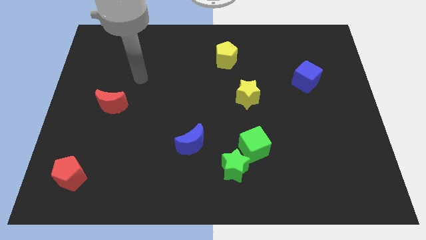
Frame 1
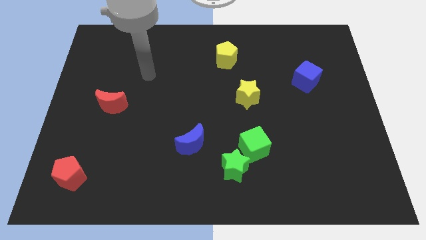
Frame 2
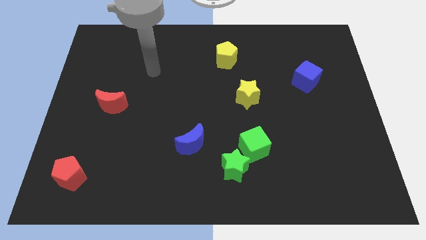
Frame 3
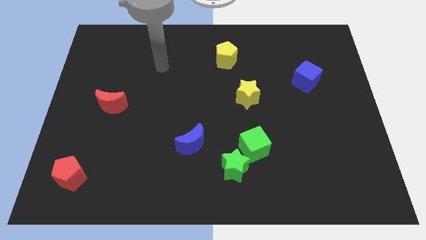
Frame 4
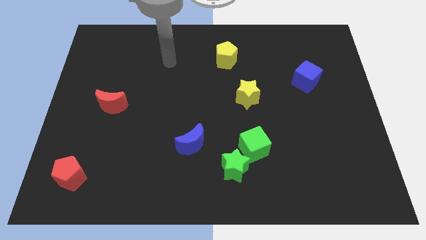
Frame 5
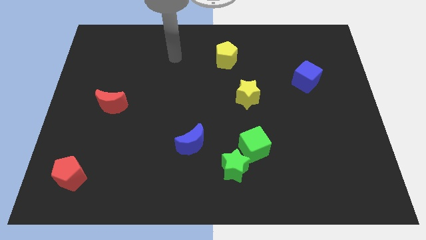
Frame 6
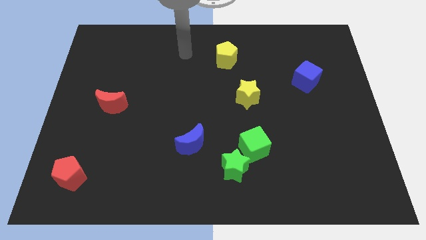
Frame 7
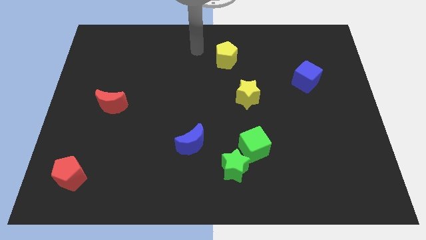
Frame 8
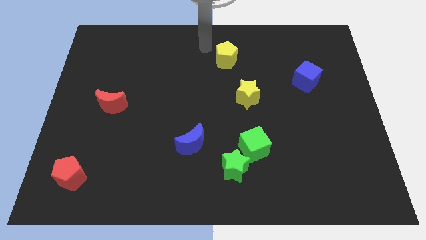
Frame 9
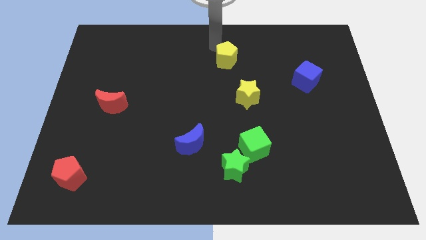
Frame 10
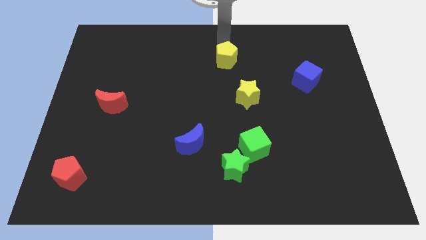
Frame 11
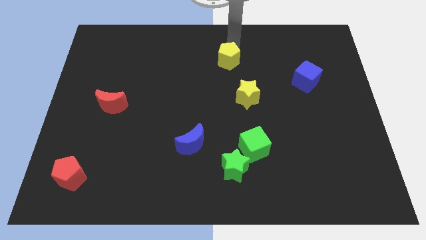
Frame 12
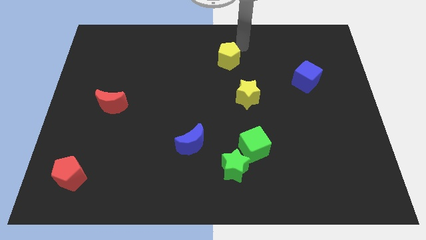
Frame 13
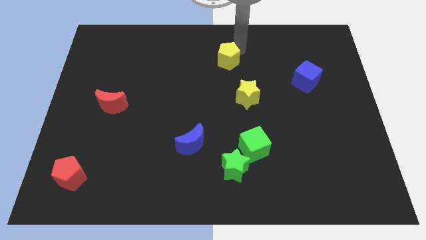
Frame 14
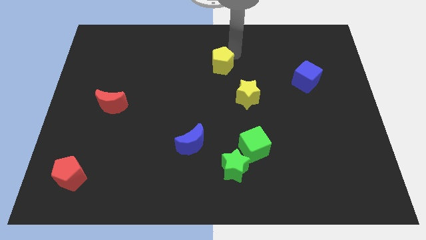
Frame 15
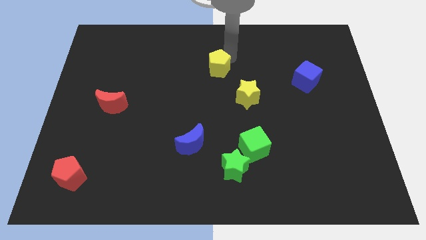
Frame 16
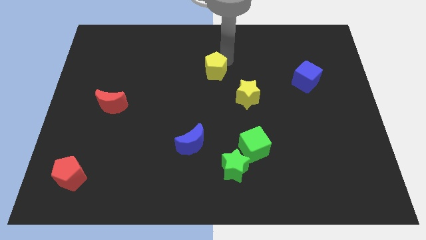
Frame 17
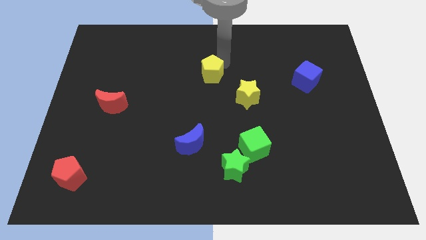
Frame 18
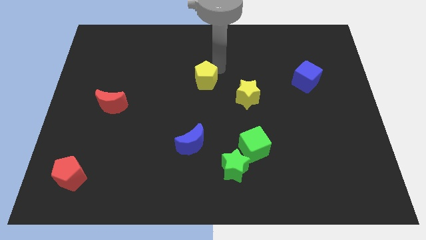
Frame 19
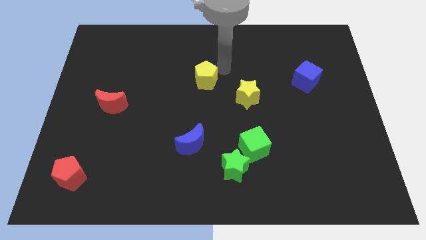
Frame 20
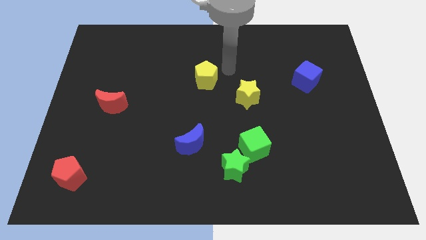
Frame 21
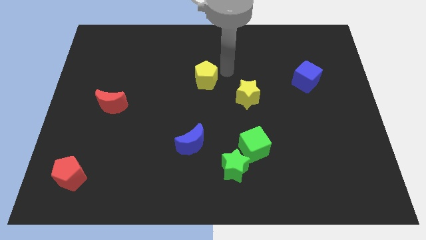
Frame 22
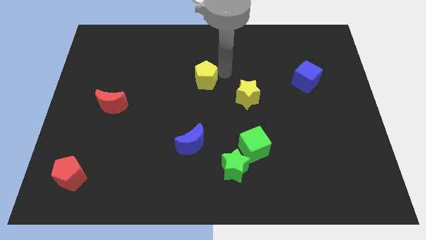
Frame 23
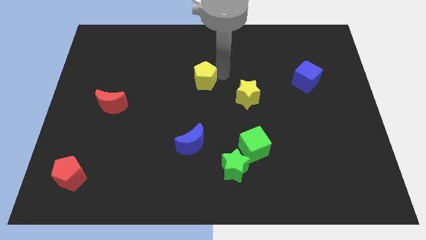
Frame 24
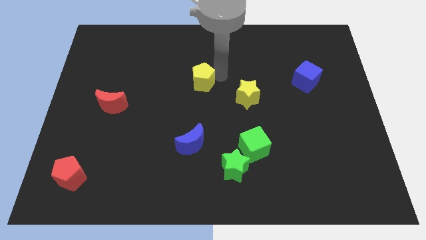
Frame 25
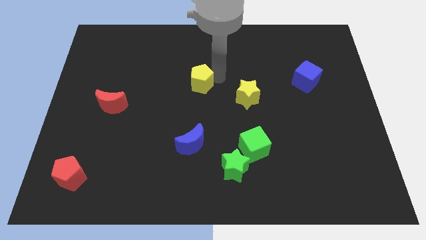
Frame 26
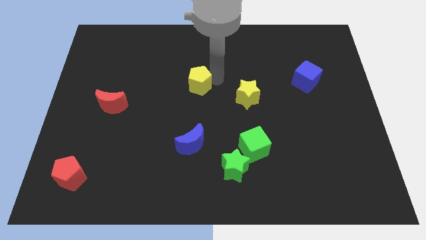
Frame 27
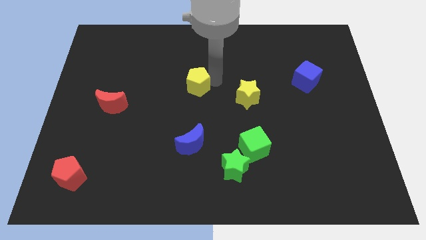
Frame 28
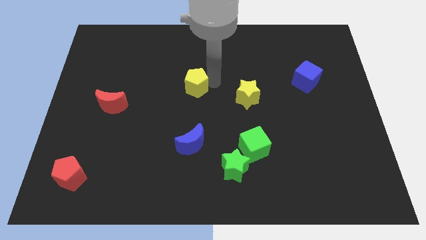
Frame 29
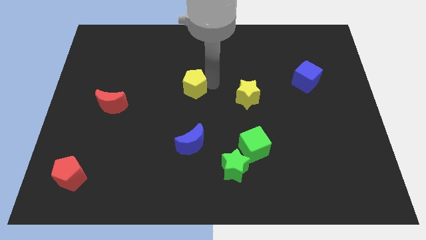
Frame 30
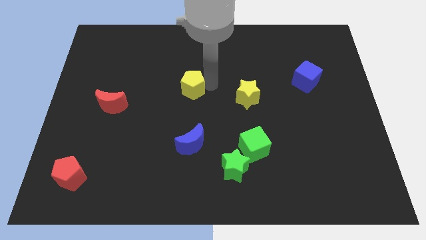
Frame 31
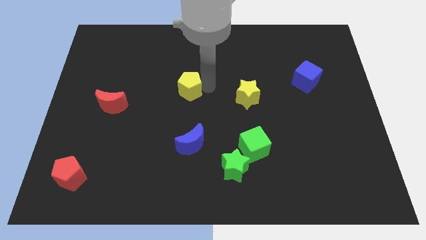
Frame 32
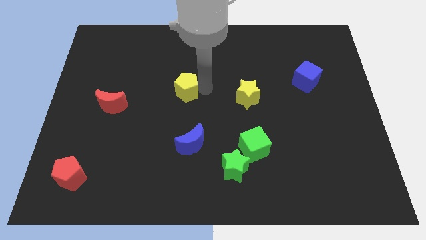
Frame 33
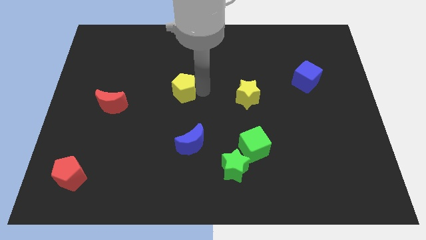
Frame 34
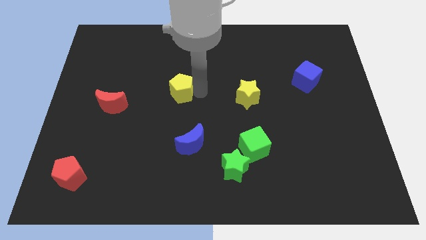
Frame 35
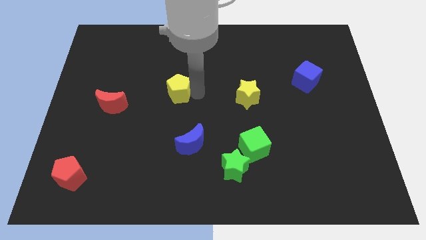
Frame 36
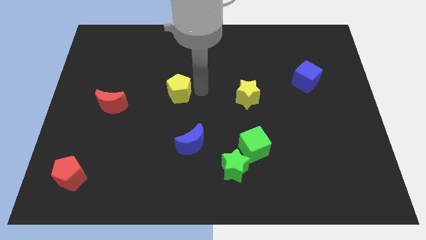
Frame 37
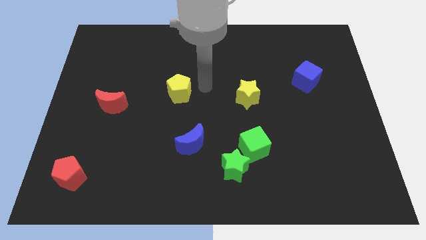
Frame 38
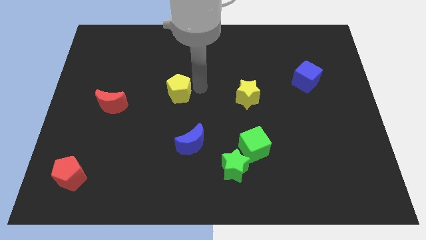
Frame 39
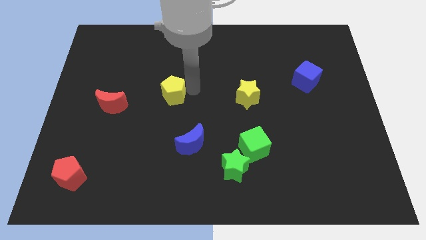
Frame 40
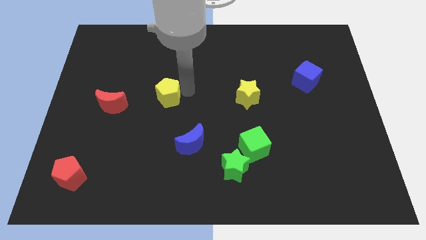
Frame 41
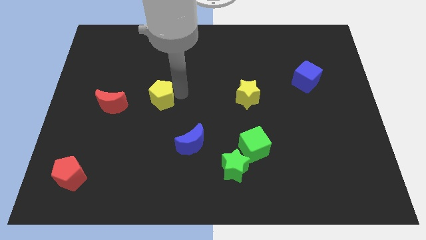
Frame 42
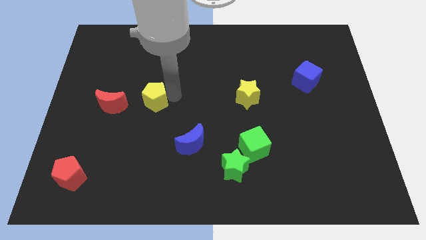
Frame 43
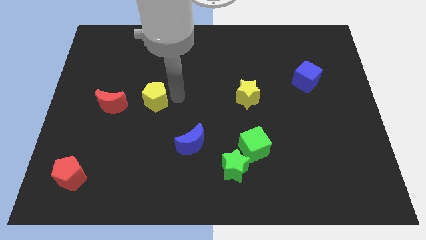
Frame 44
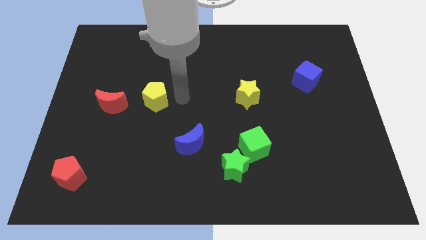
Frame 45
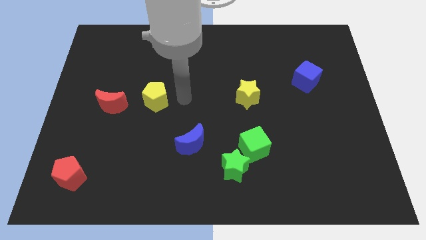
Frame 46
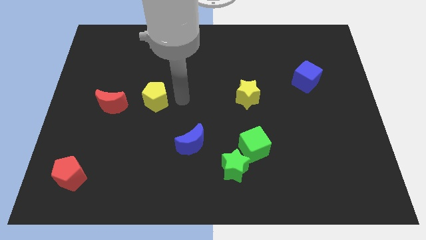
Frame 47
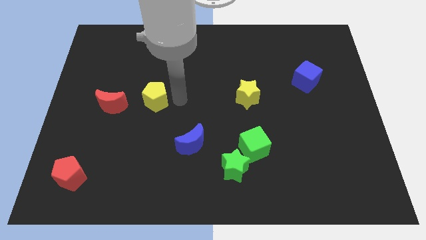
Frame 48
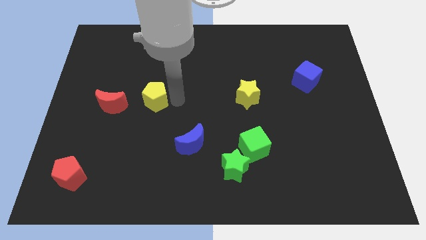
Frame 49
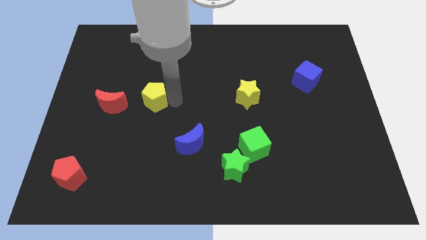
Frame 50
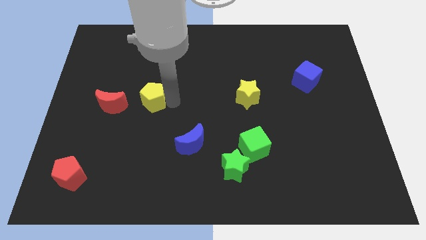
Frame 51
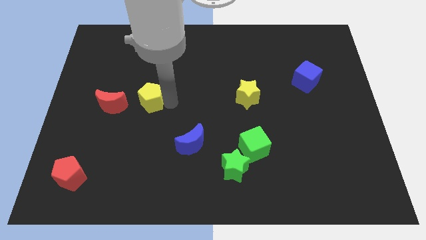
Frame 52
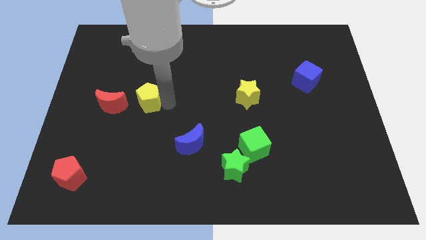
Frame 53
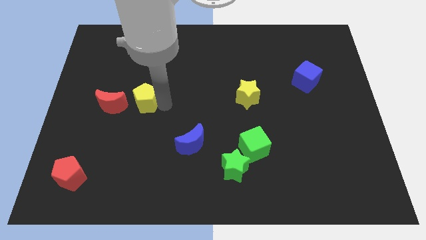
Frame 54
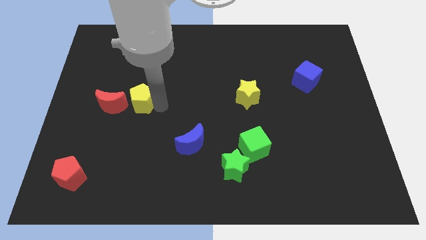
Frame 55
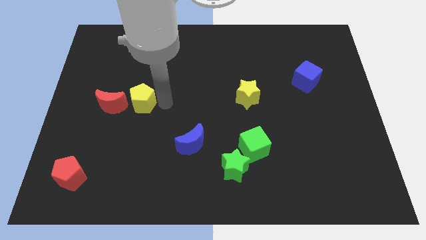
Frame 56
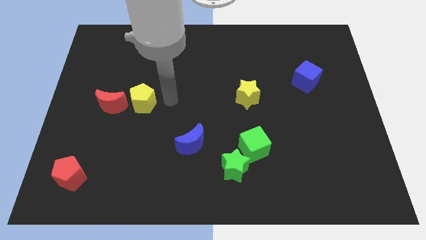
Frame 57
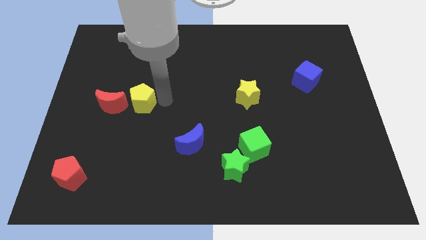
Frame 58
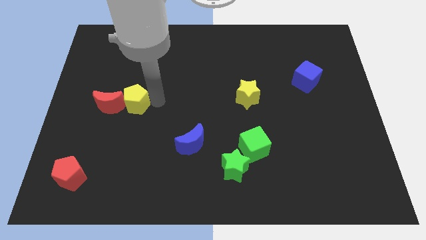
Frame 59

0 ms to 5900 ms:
put the yellow pentagon towards the red moon

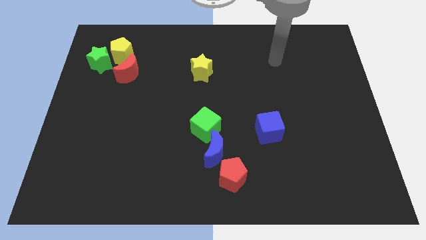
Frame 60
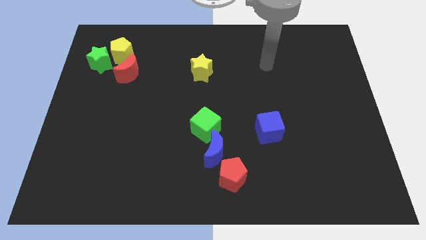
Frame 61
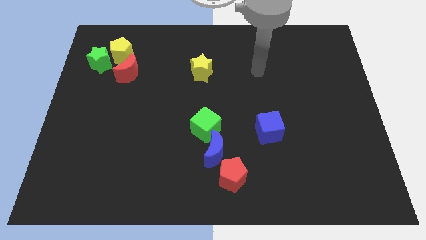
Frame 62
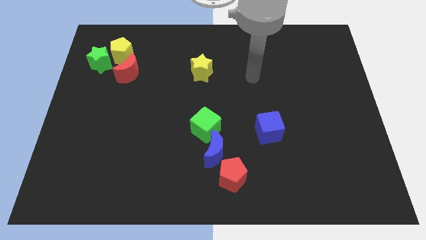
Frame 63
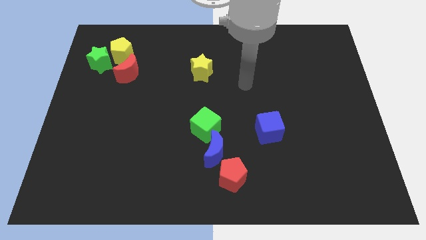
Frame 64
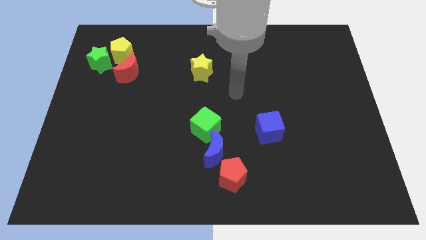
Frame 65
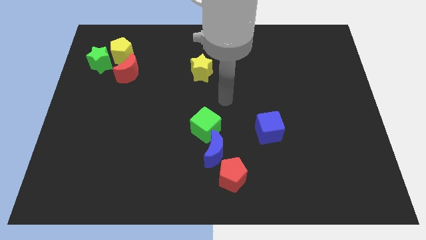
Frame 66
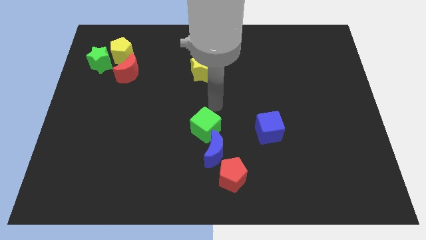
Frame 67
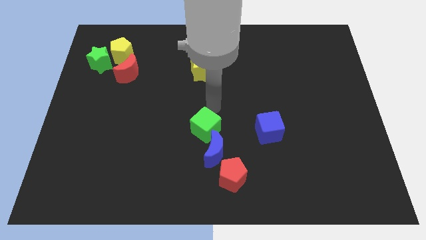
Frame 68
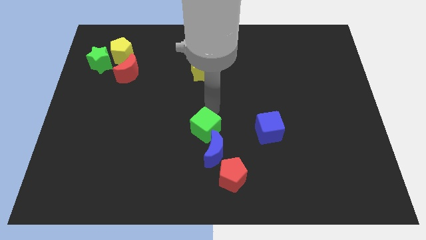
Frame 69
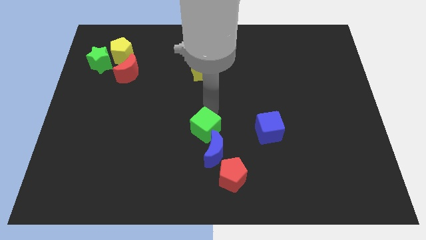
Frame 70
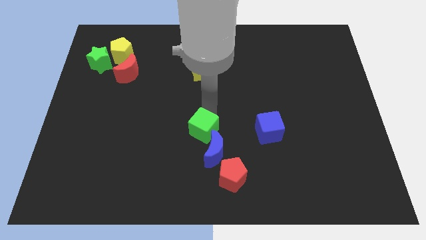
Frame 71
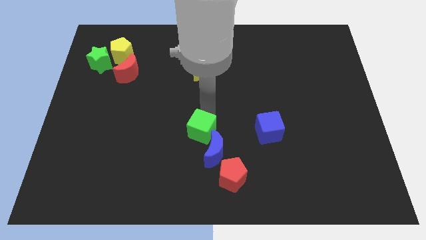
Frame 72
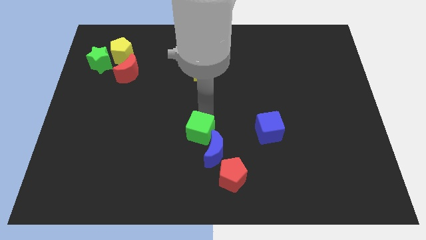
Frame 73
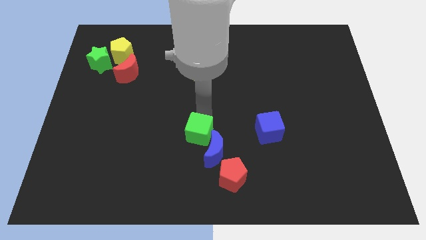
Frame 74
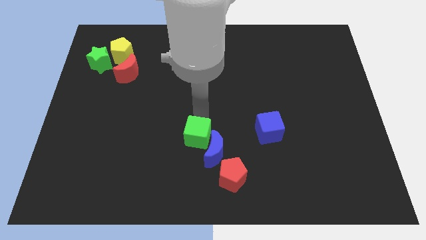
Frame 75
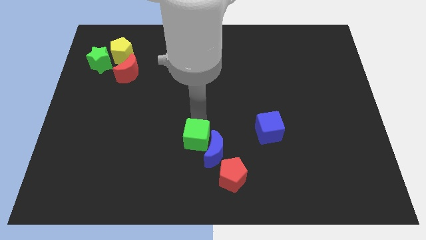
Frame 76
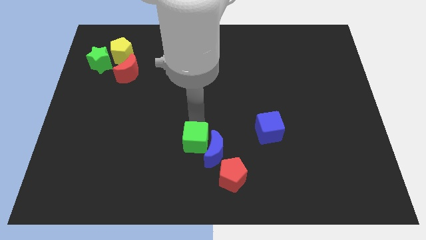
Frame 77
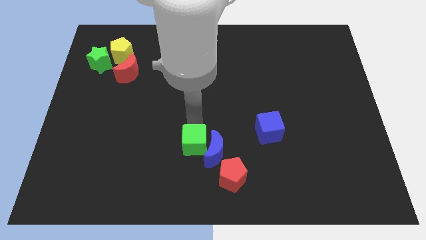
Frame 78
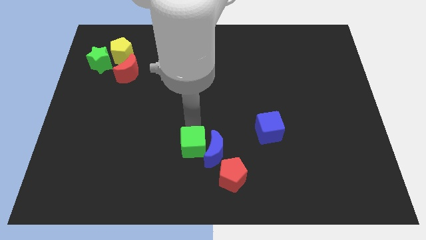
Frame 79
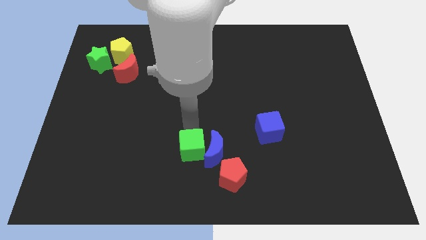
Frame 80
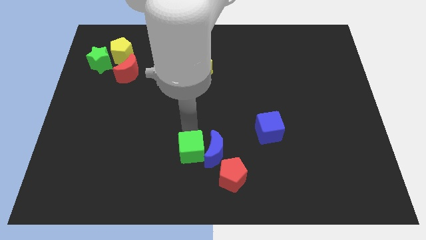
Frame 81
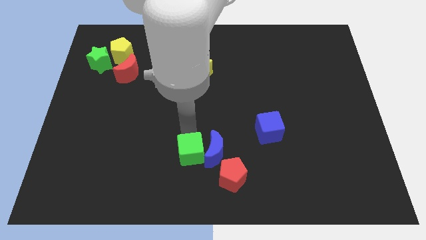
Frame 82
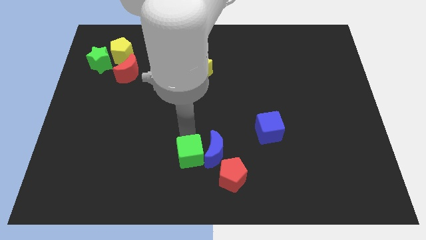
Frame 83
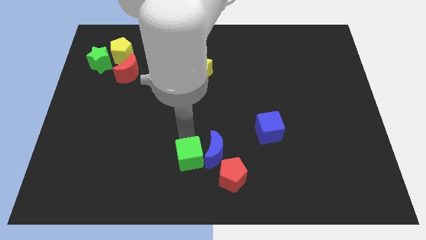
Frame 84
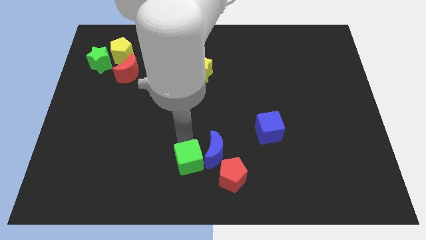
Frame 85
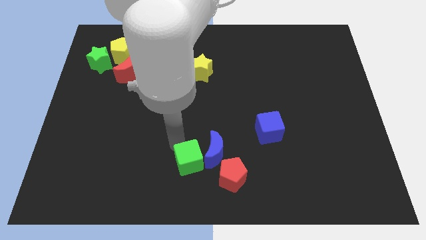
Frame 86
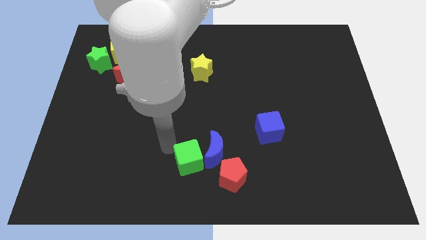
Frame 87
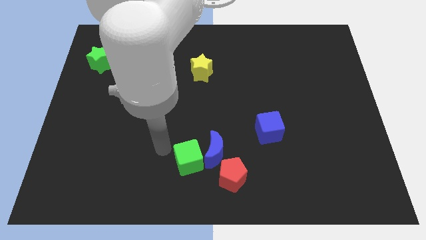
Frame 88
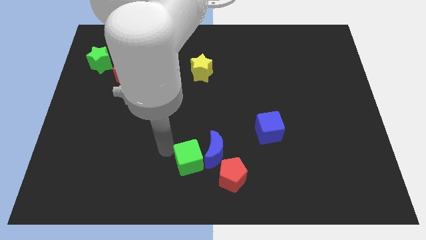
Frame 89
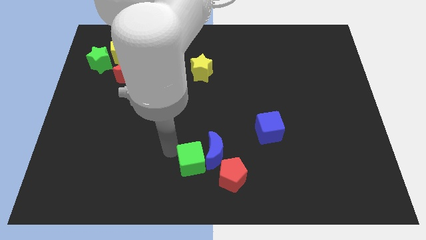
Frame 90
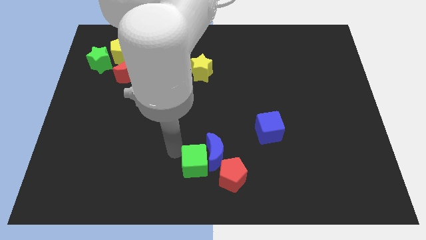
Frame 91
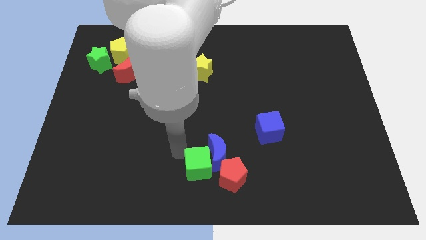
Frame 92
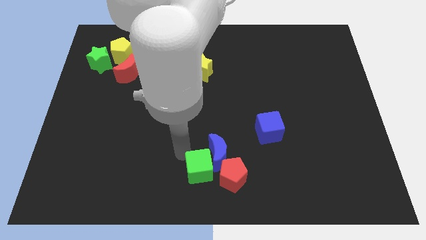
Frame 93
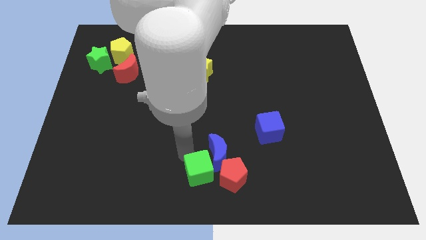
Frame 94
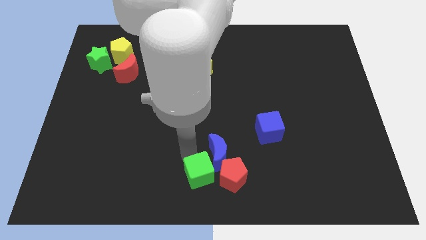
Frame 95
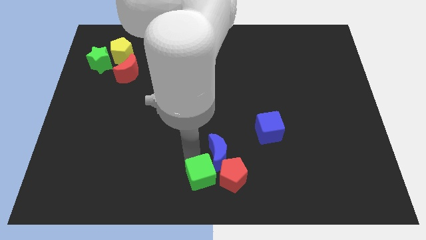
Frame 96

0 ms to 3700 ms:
push the green cube towards the red pentagon
